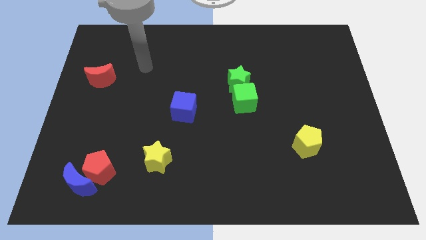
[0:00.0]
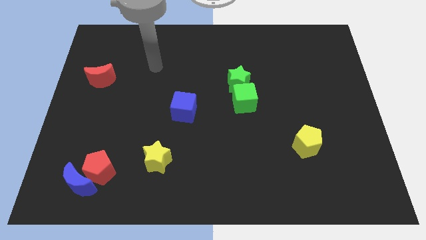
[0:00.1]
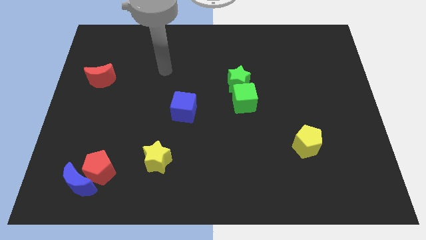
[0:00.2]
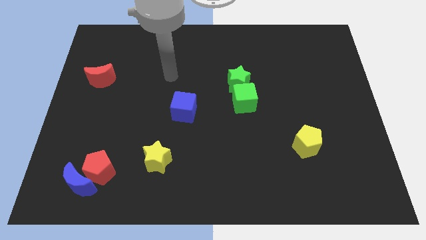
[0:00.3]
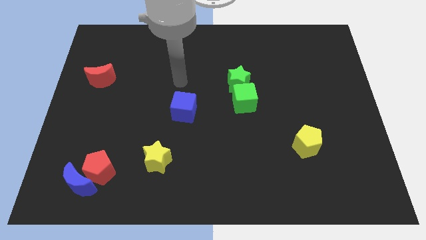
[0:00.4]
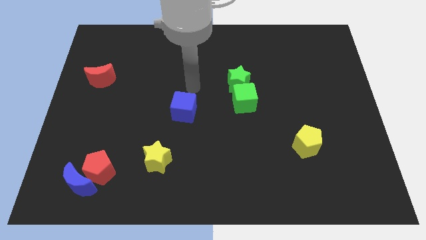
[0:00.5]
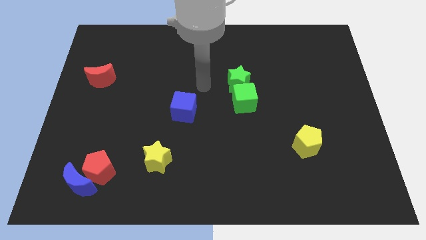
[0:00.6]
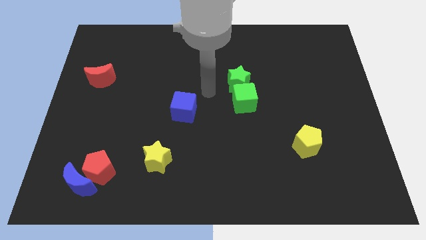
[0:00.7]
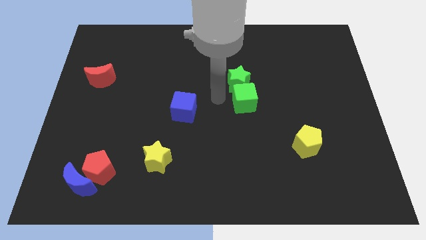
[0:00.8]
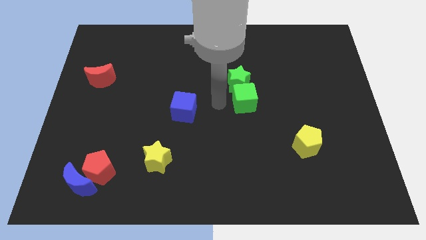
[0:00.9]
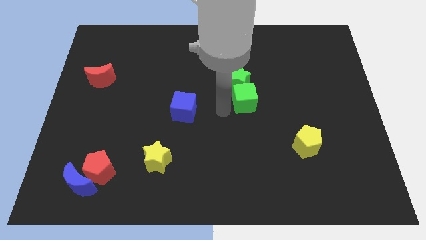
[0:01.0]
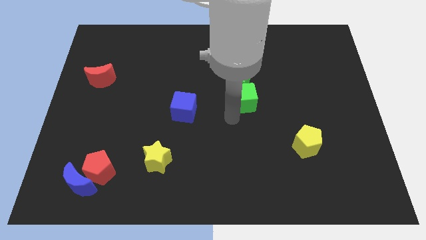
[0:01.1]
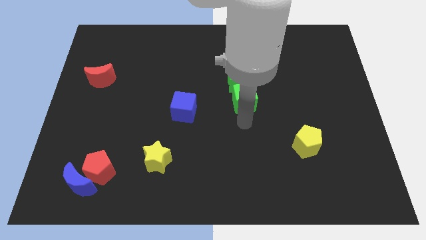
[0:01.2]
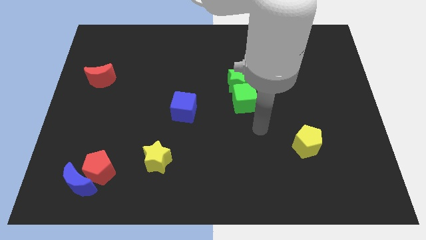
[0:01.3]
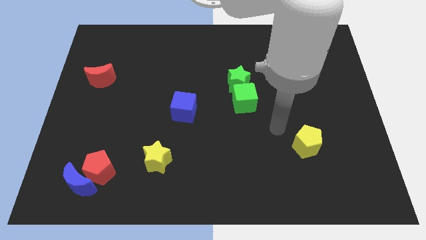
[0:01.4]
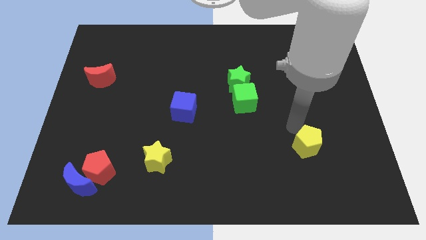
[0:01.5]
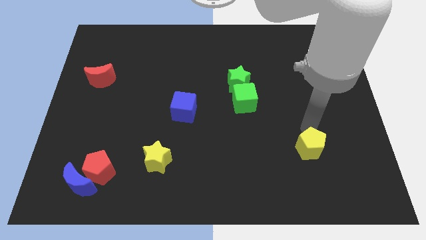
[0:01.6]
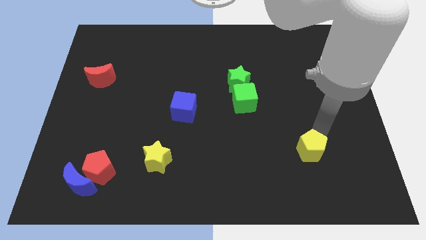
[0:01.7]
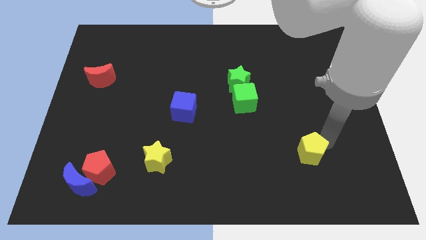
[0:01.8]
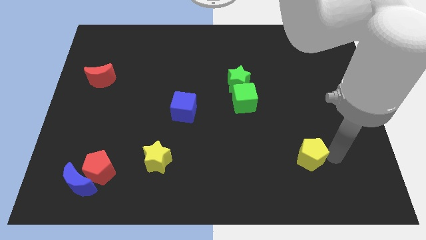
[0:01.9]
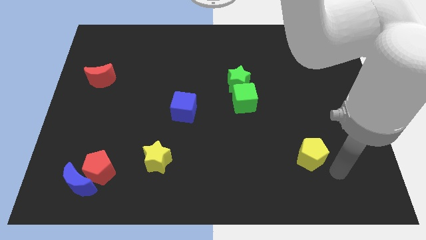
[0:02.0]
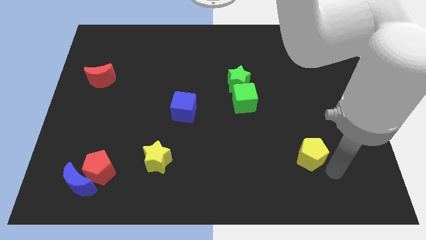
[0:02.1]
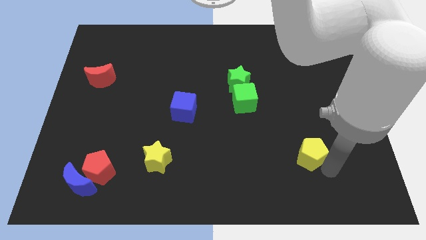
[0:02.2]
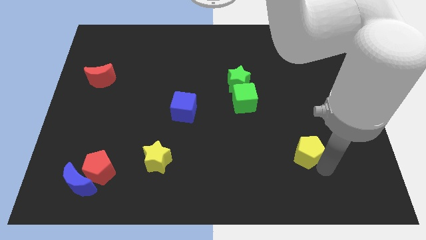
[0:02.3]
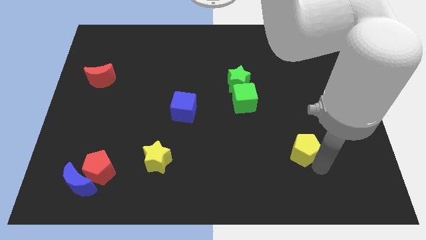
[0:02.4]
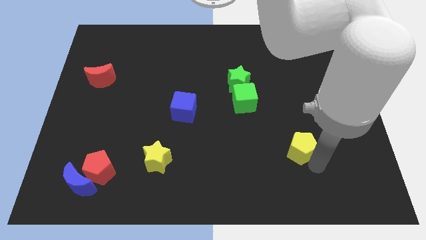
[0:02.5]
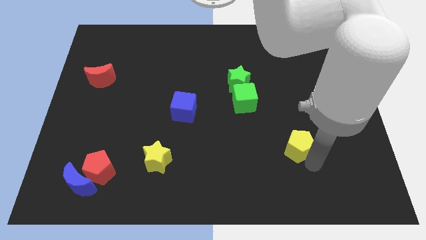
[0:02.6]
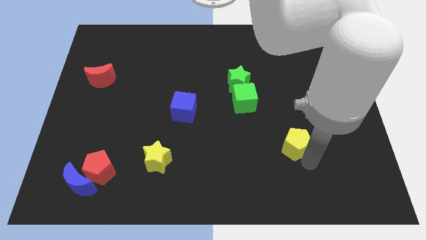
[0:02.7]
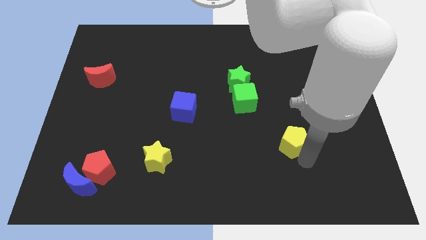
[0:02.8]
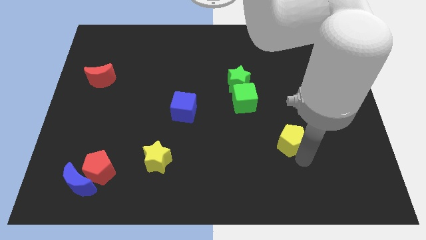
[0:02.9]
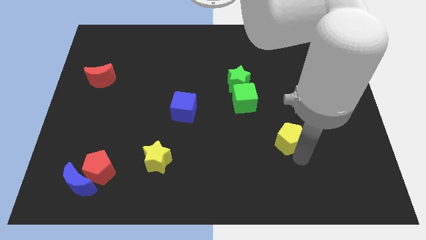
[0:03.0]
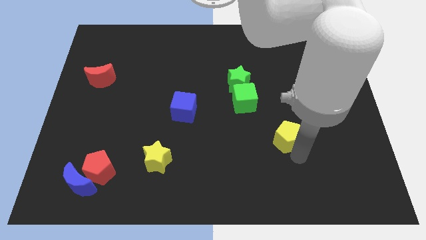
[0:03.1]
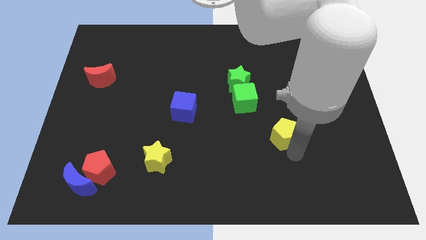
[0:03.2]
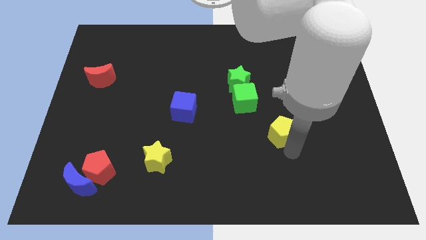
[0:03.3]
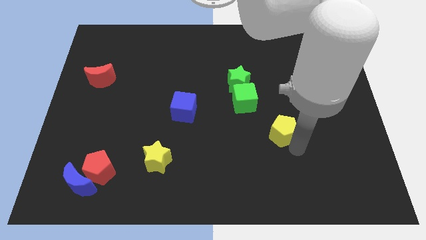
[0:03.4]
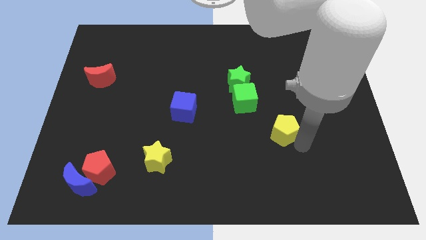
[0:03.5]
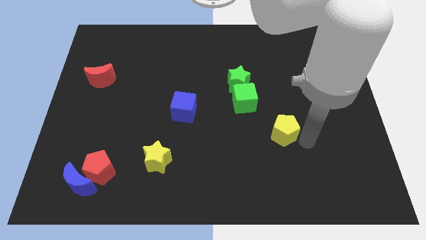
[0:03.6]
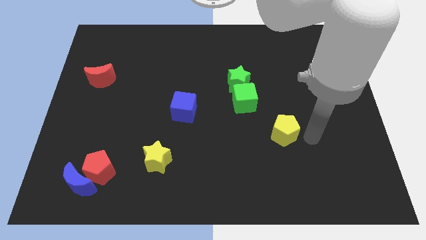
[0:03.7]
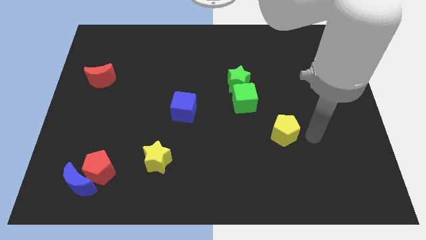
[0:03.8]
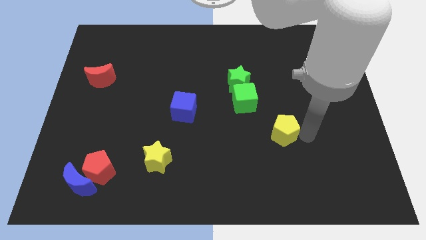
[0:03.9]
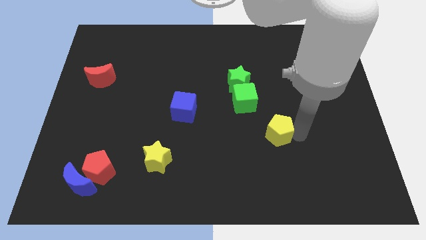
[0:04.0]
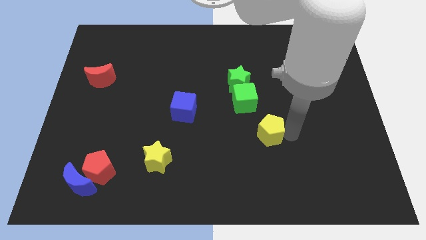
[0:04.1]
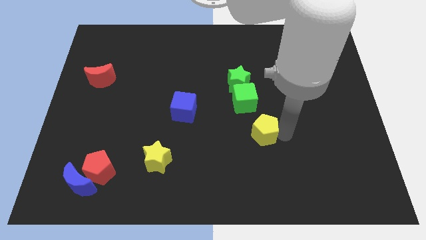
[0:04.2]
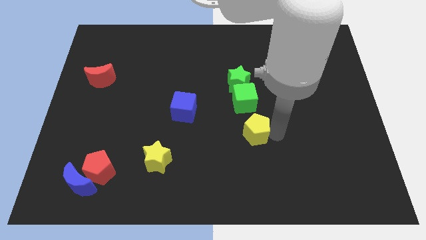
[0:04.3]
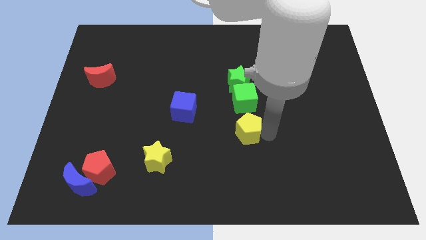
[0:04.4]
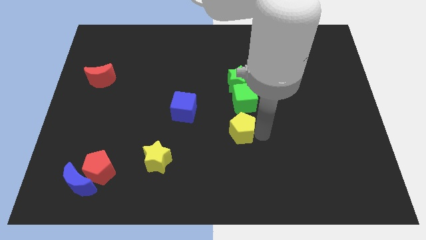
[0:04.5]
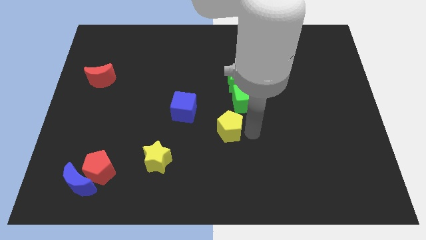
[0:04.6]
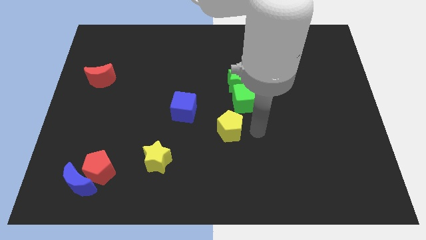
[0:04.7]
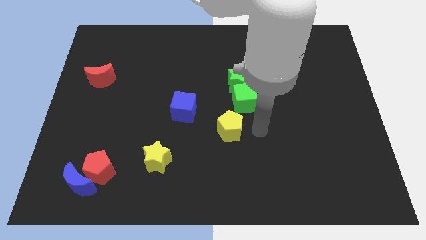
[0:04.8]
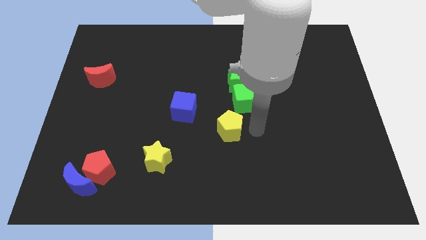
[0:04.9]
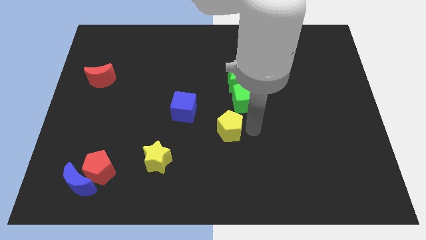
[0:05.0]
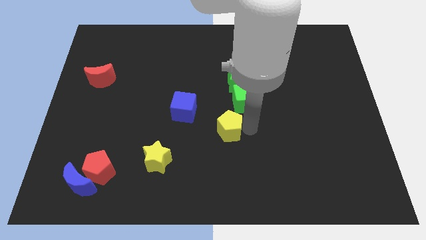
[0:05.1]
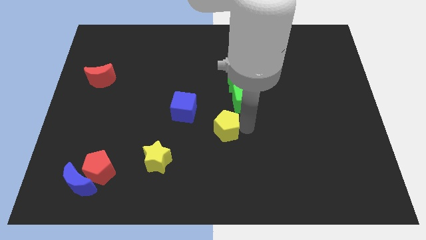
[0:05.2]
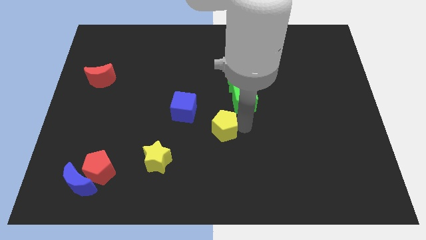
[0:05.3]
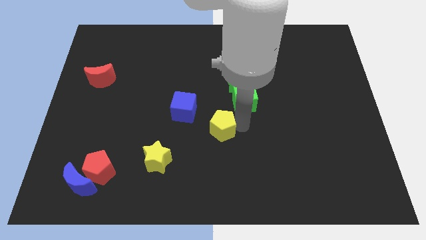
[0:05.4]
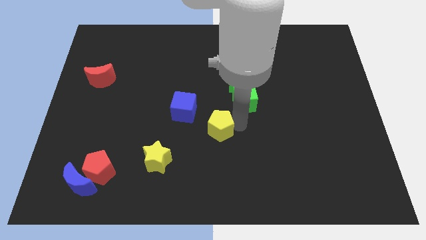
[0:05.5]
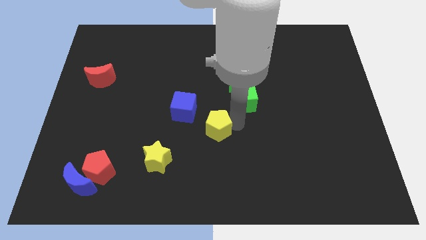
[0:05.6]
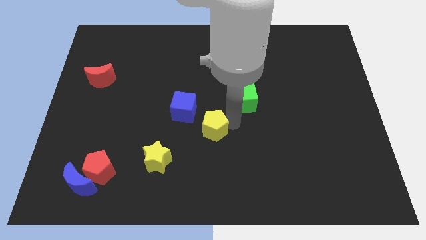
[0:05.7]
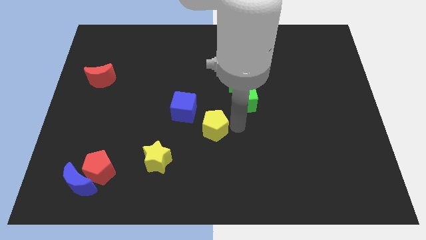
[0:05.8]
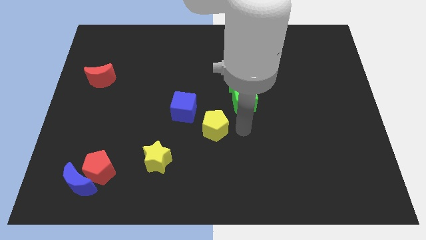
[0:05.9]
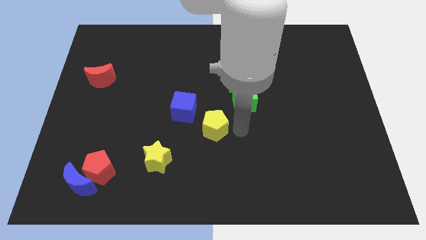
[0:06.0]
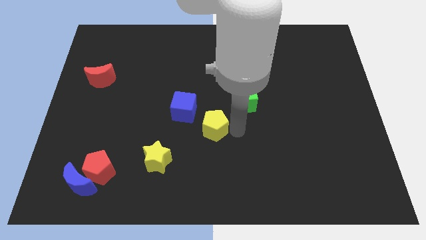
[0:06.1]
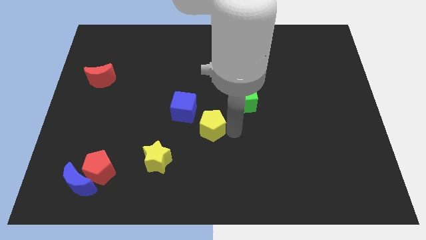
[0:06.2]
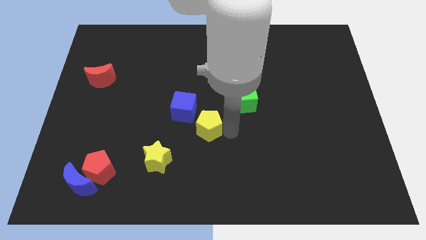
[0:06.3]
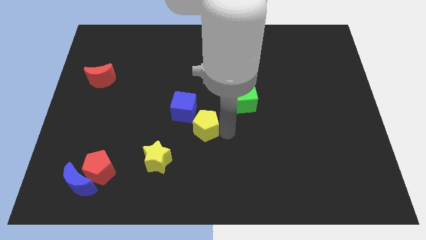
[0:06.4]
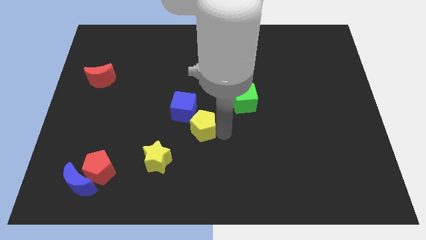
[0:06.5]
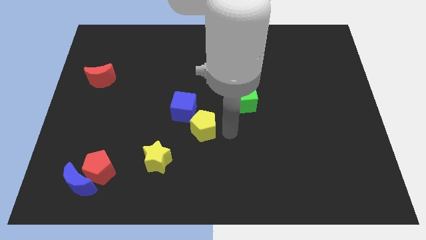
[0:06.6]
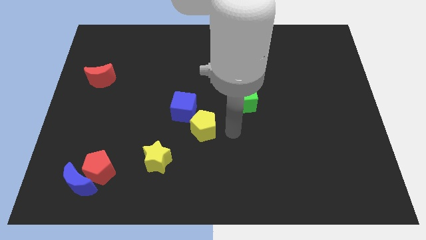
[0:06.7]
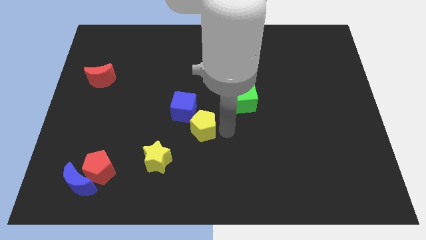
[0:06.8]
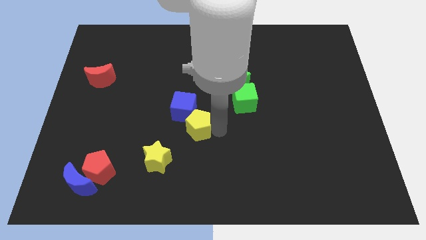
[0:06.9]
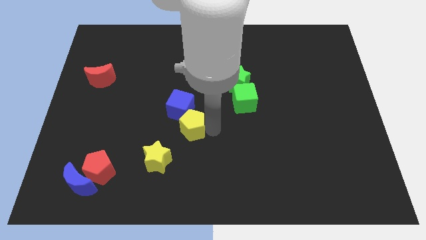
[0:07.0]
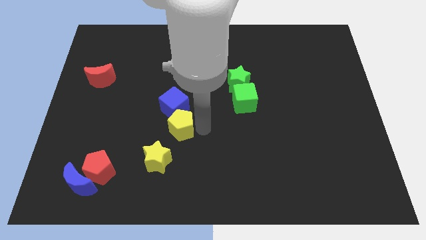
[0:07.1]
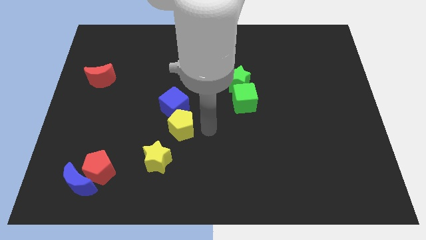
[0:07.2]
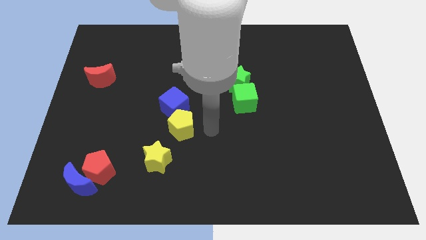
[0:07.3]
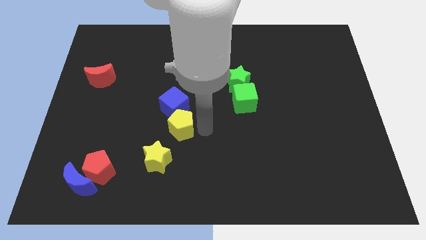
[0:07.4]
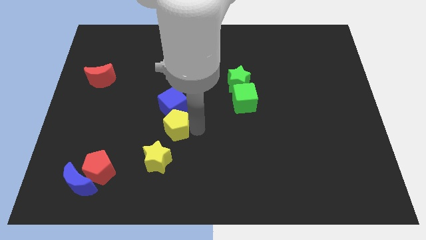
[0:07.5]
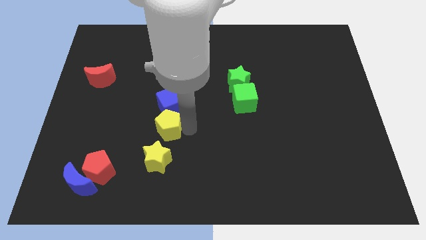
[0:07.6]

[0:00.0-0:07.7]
slide the yellow pentagon diagonally down and to the left of the blue cube
